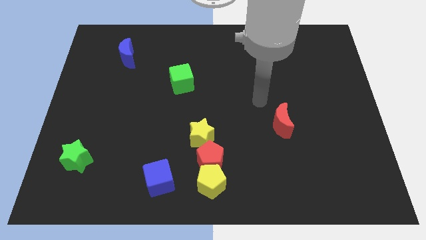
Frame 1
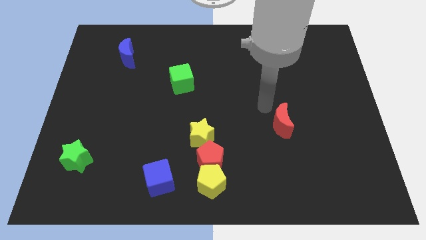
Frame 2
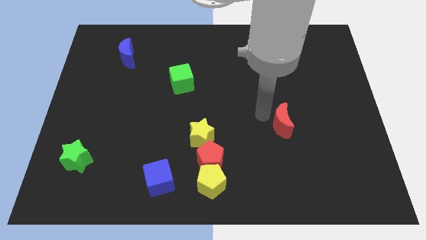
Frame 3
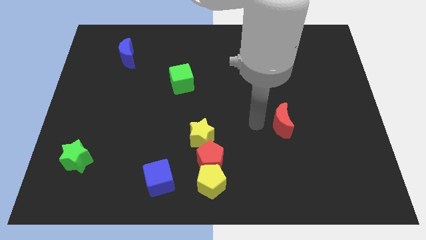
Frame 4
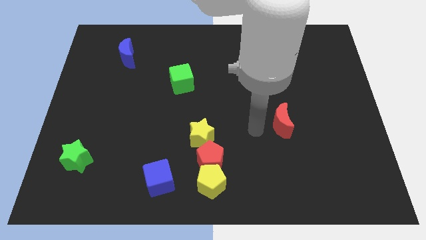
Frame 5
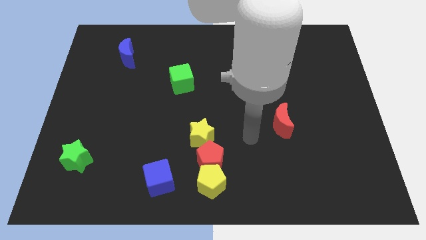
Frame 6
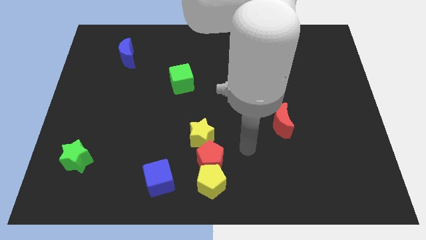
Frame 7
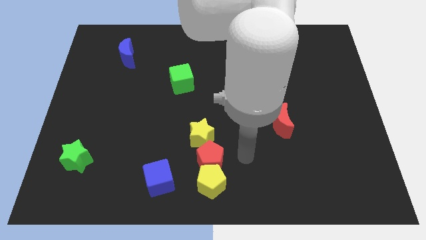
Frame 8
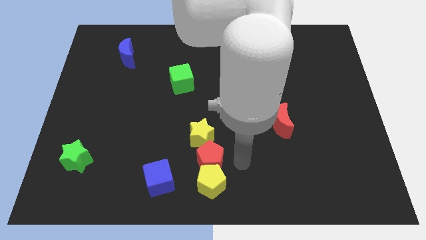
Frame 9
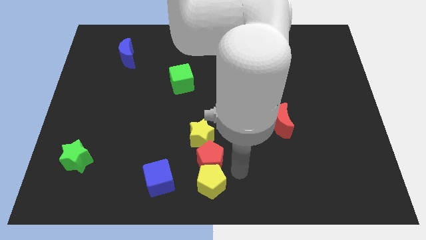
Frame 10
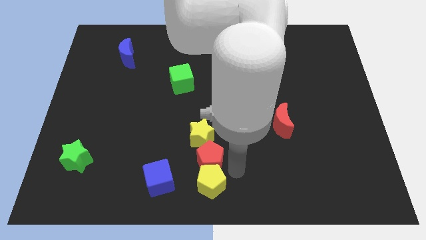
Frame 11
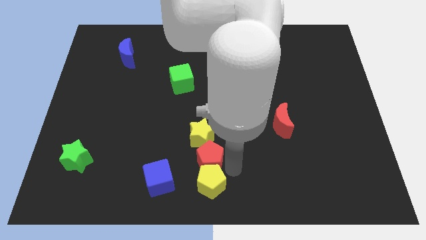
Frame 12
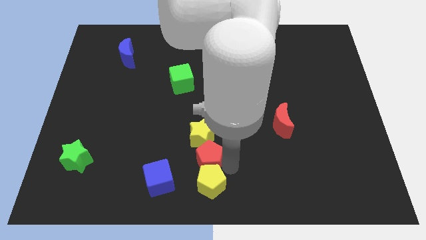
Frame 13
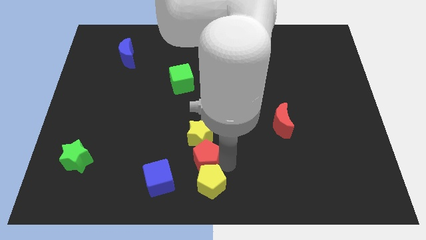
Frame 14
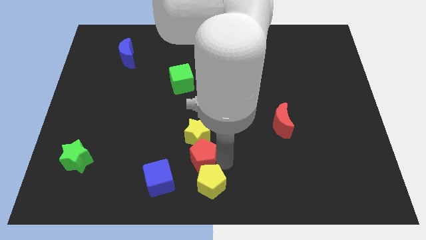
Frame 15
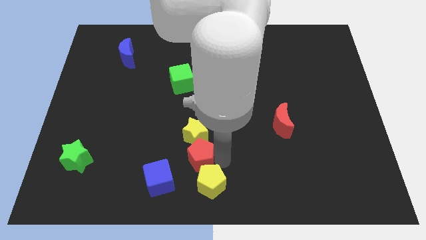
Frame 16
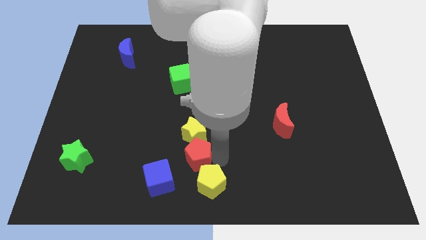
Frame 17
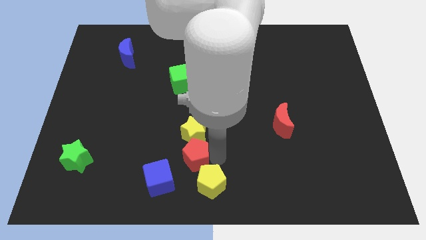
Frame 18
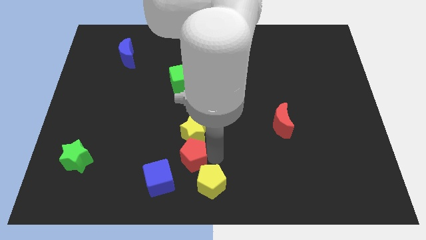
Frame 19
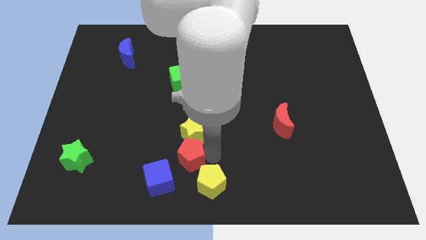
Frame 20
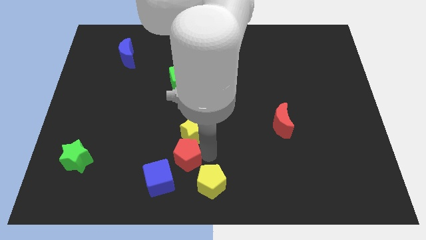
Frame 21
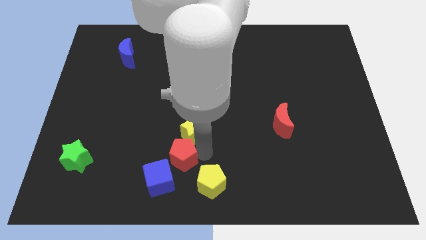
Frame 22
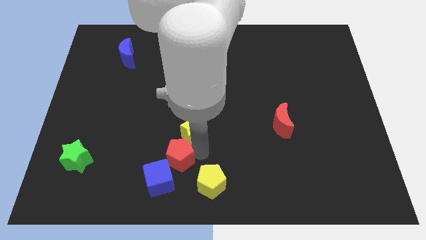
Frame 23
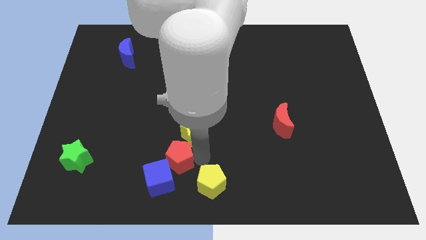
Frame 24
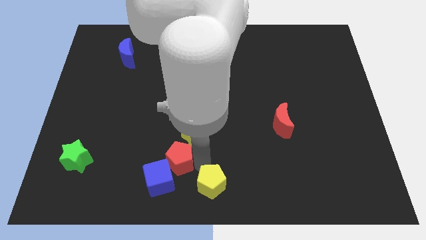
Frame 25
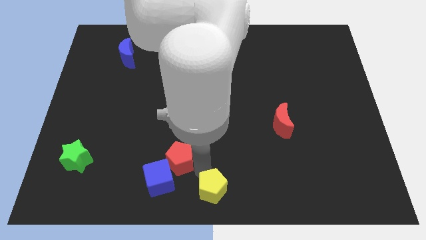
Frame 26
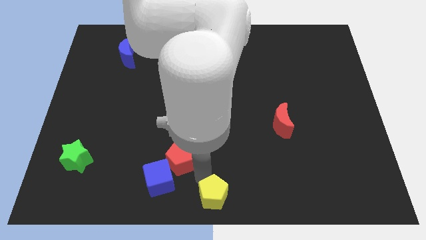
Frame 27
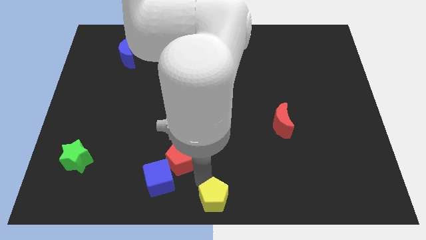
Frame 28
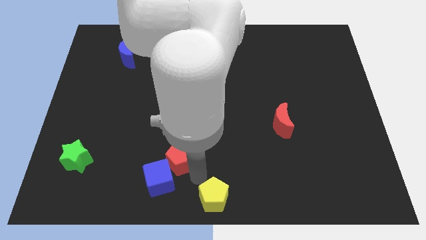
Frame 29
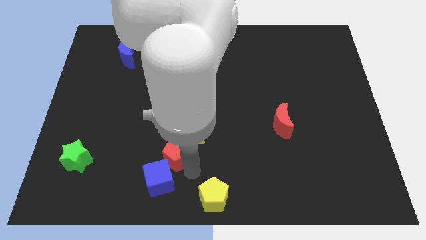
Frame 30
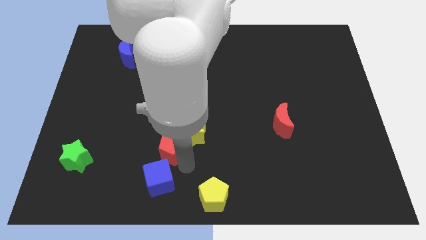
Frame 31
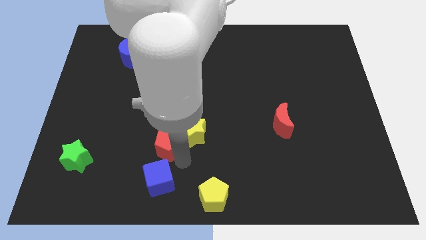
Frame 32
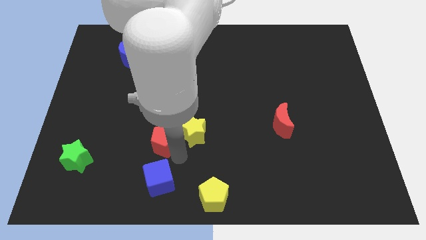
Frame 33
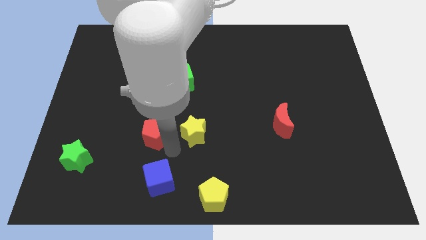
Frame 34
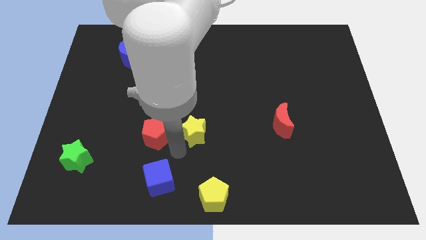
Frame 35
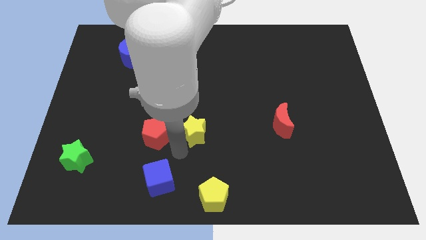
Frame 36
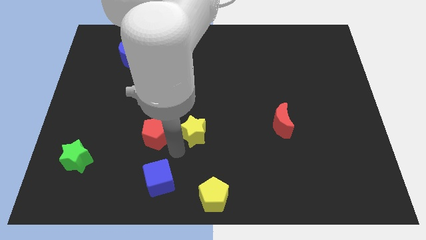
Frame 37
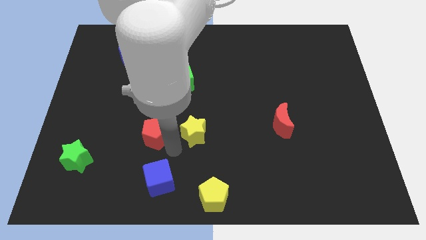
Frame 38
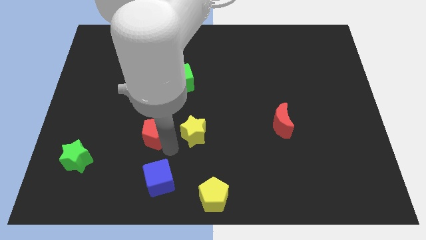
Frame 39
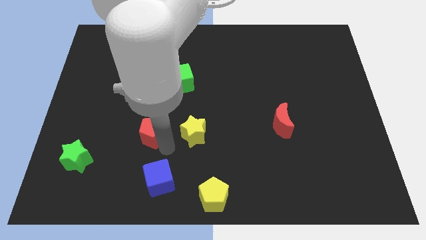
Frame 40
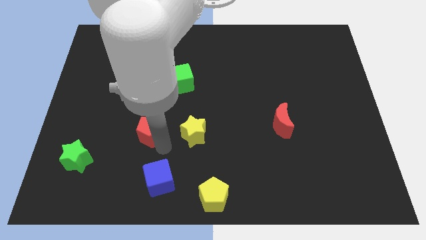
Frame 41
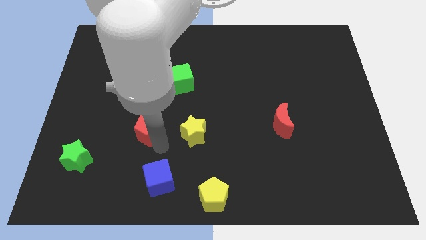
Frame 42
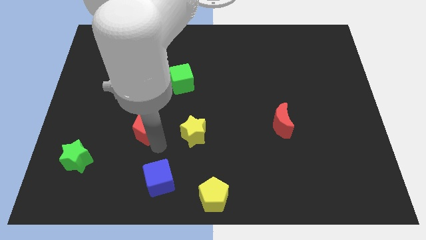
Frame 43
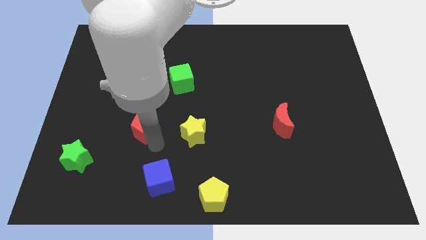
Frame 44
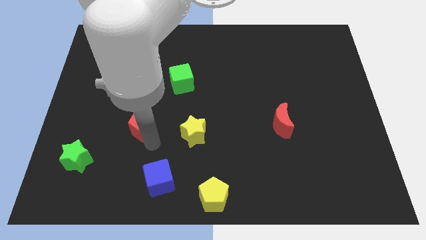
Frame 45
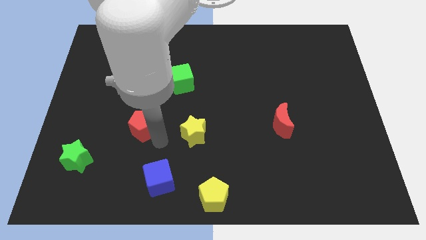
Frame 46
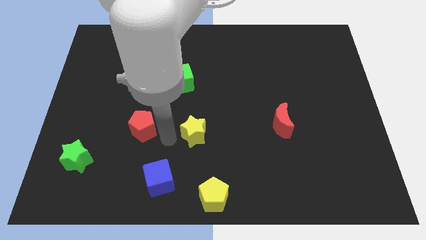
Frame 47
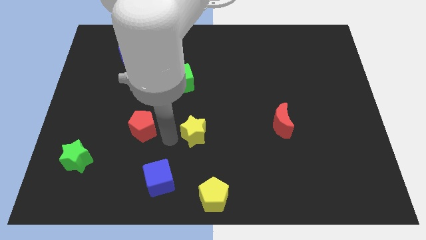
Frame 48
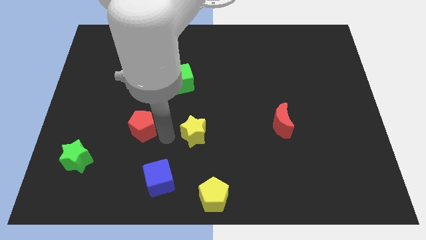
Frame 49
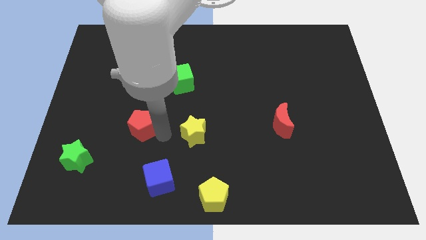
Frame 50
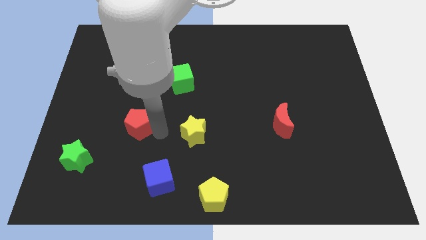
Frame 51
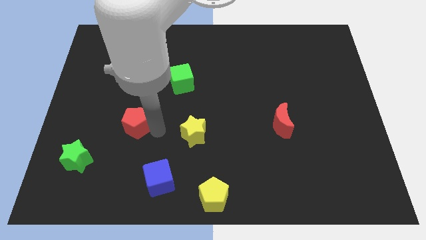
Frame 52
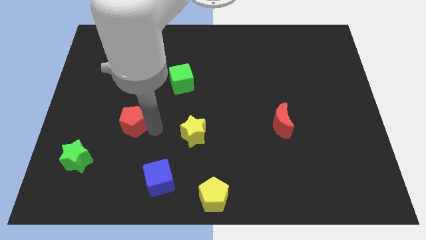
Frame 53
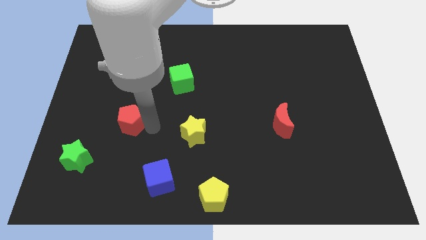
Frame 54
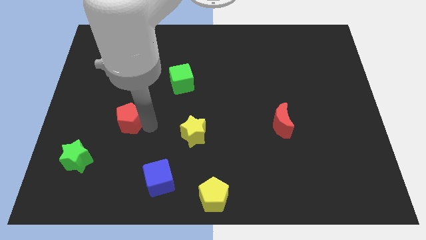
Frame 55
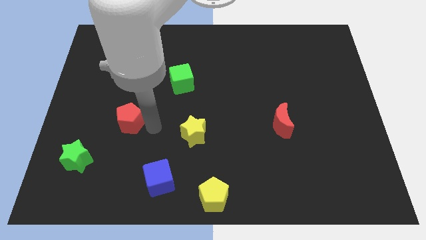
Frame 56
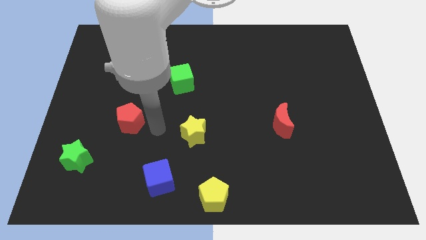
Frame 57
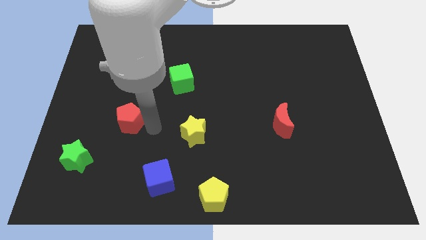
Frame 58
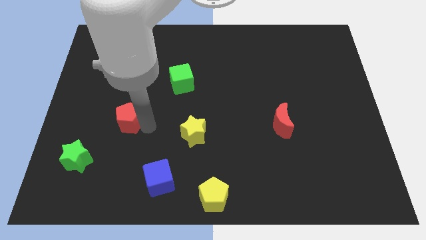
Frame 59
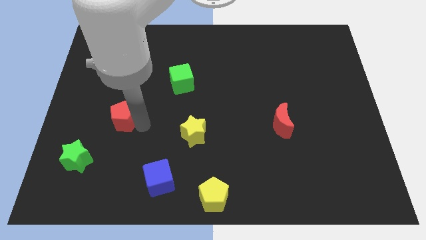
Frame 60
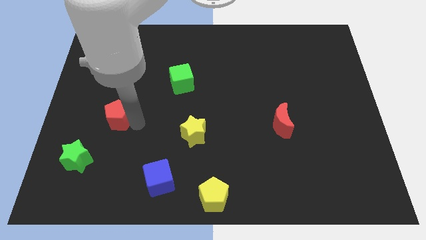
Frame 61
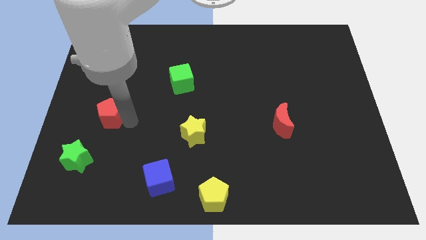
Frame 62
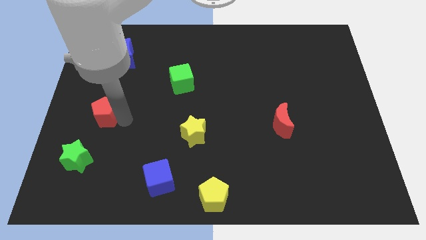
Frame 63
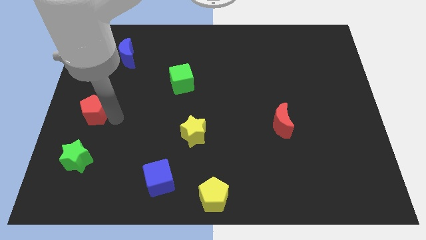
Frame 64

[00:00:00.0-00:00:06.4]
push the red pentagon to the left side of the board

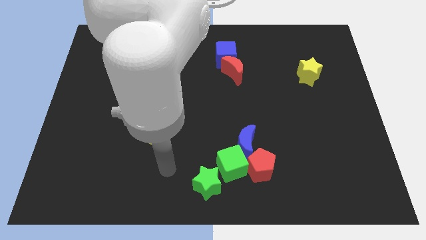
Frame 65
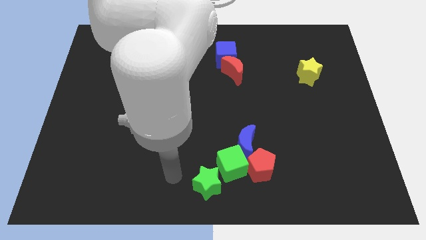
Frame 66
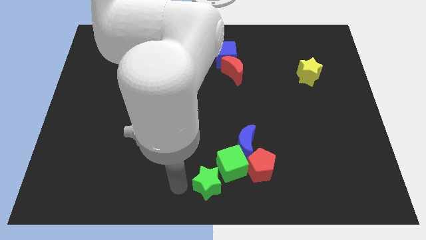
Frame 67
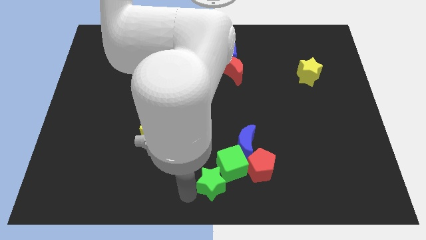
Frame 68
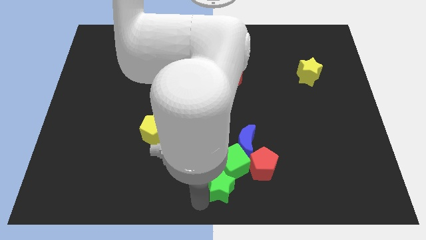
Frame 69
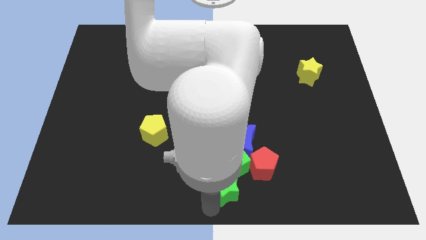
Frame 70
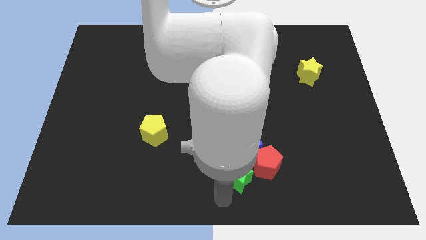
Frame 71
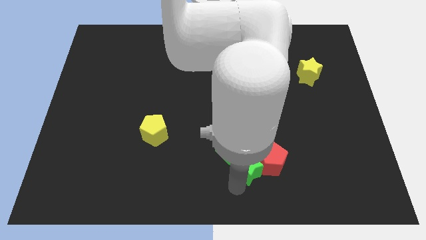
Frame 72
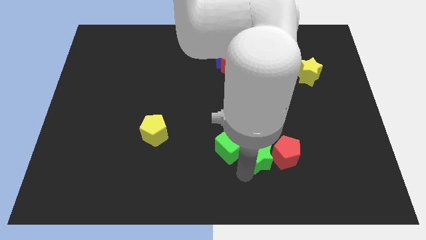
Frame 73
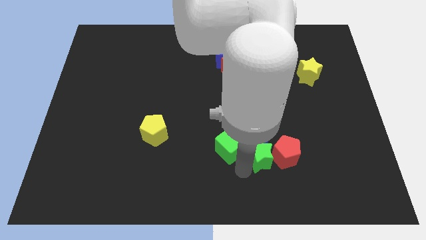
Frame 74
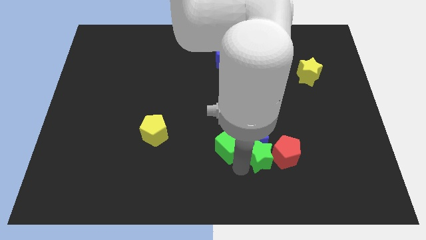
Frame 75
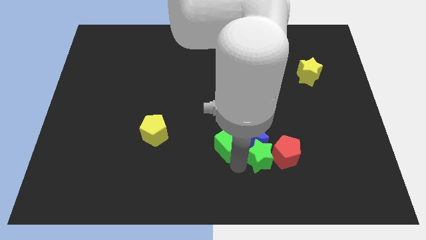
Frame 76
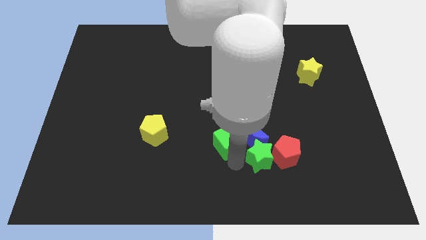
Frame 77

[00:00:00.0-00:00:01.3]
put the green cube to the middle of the board
